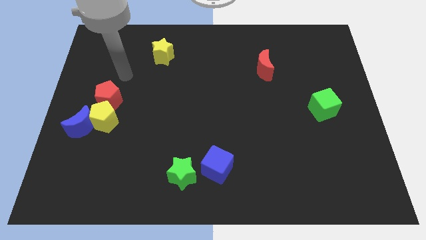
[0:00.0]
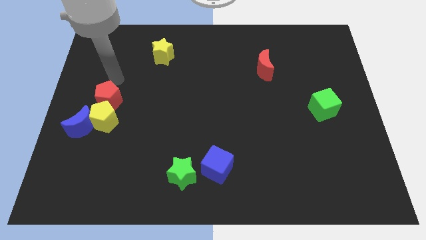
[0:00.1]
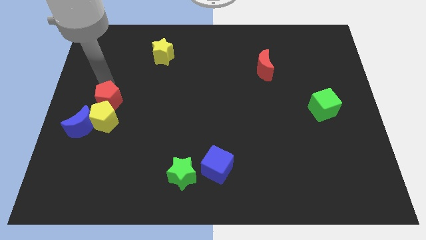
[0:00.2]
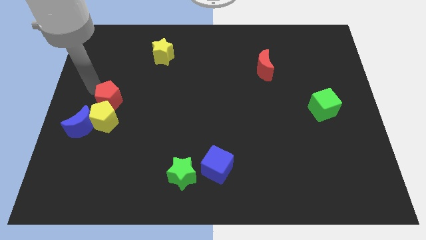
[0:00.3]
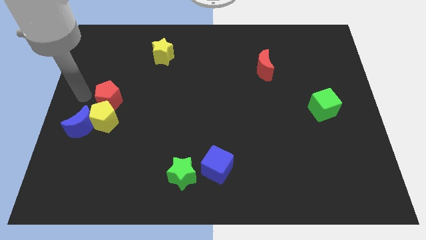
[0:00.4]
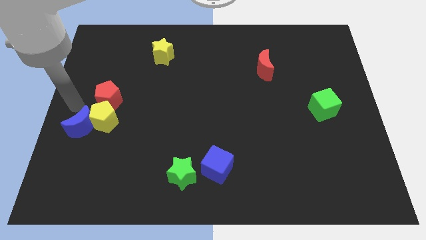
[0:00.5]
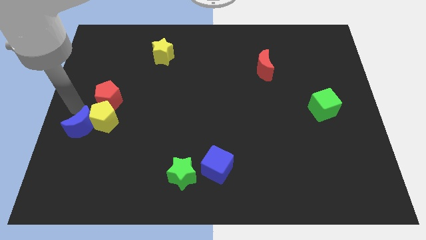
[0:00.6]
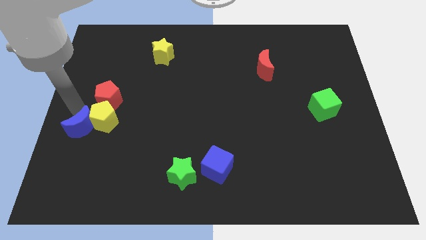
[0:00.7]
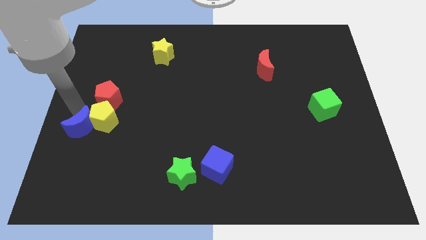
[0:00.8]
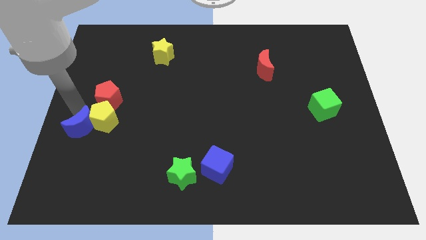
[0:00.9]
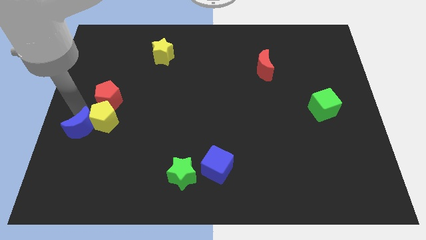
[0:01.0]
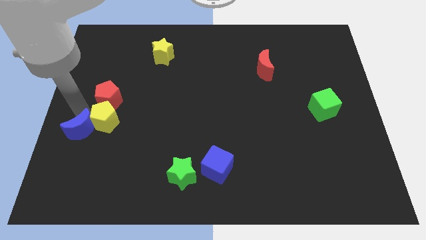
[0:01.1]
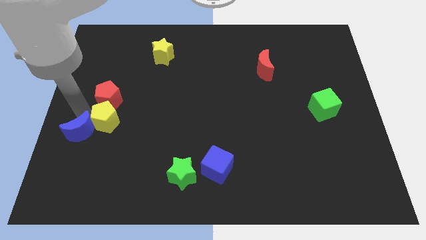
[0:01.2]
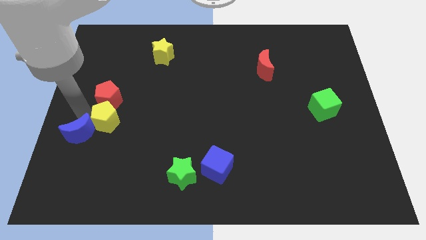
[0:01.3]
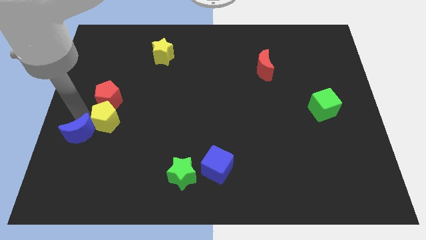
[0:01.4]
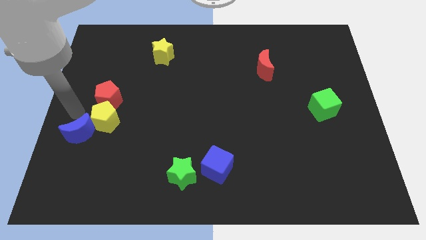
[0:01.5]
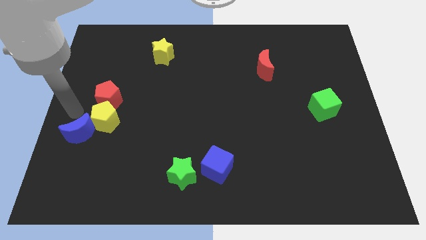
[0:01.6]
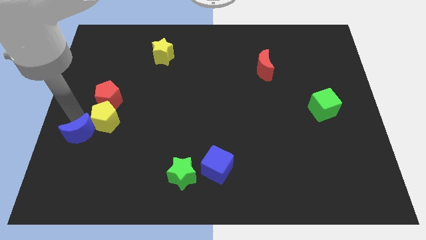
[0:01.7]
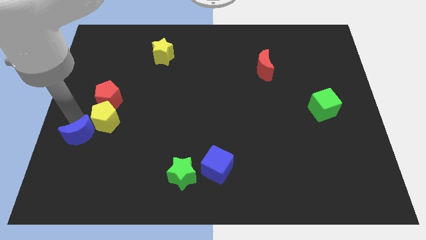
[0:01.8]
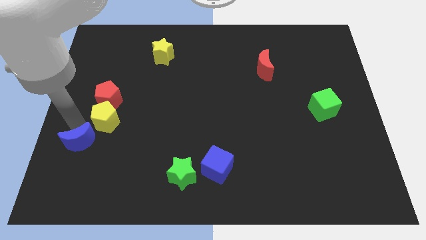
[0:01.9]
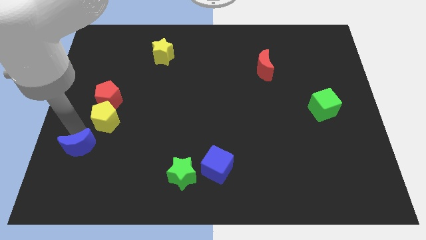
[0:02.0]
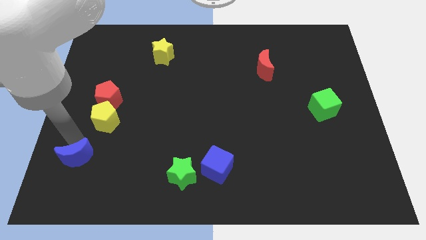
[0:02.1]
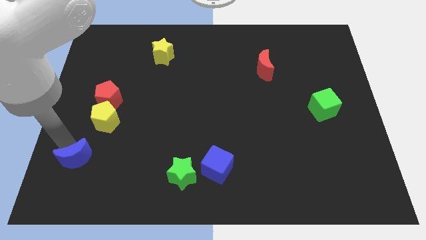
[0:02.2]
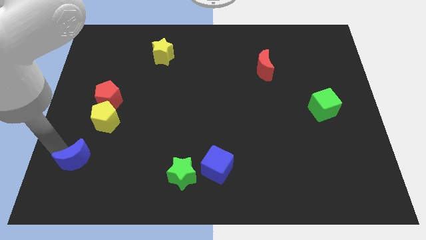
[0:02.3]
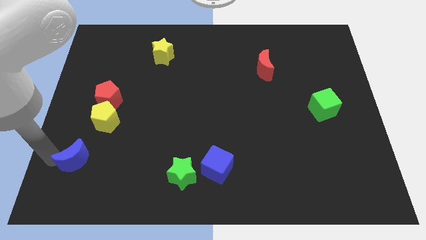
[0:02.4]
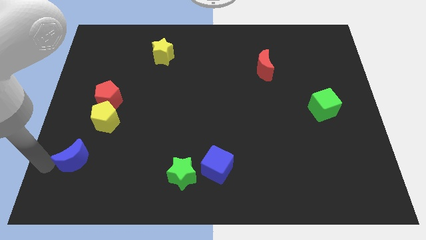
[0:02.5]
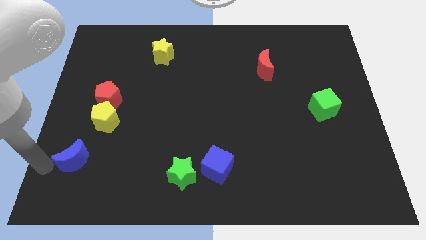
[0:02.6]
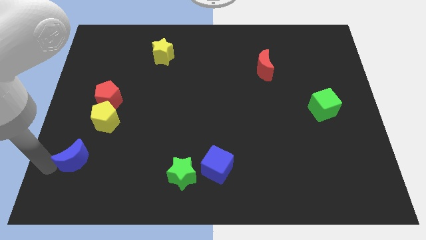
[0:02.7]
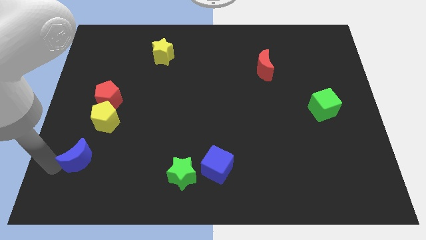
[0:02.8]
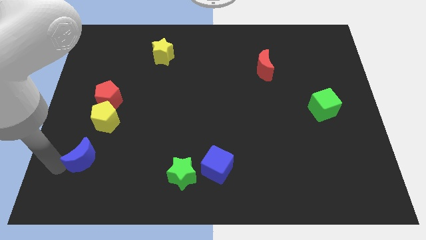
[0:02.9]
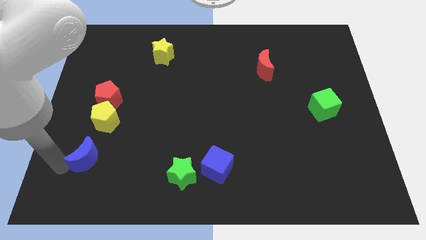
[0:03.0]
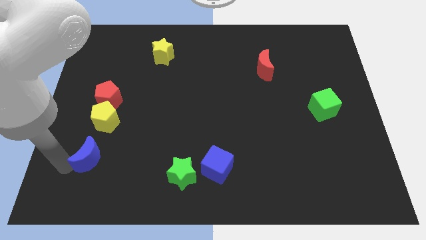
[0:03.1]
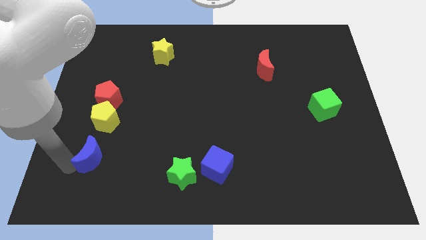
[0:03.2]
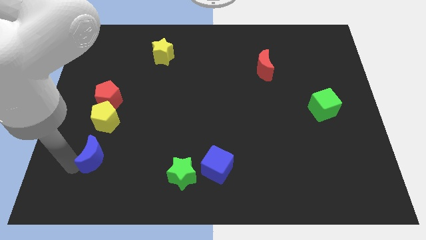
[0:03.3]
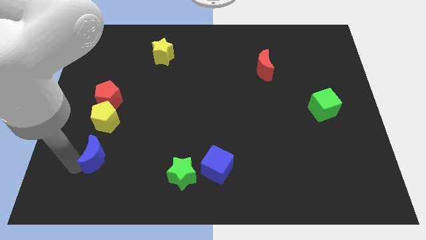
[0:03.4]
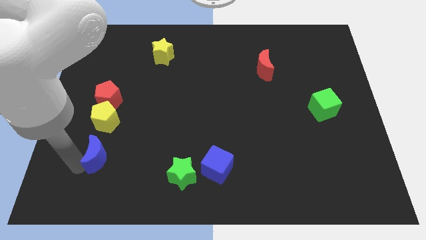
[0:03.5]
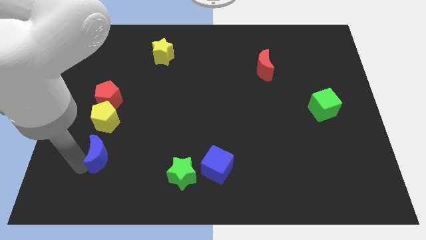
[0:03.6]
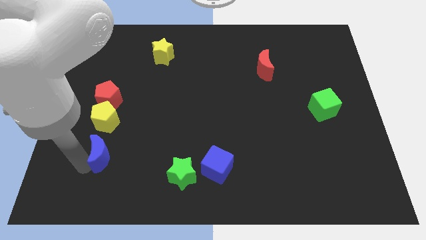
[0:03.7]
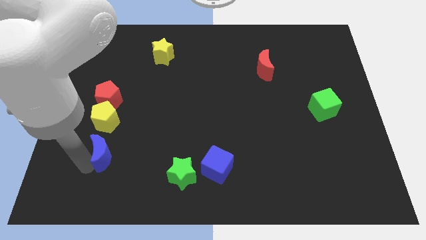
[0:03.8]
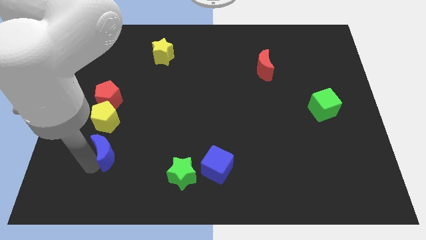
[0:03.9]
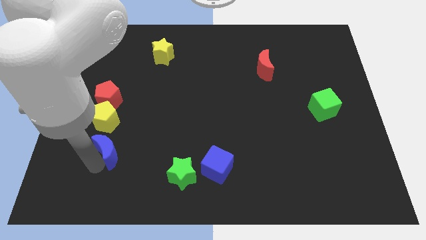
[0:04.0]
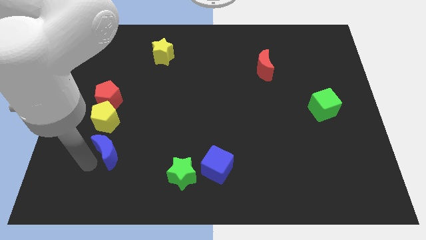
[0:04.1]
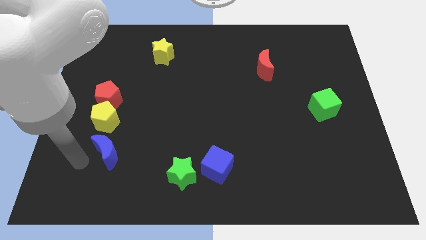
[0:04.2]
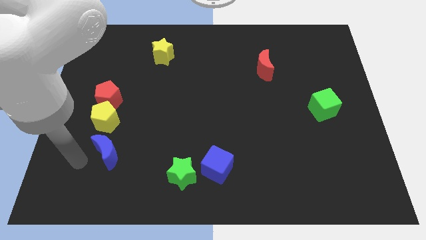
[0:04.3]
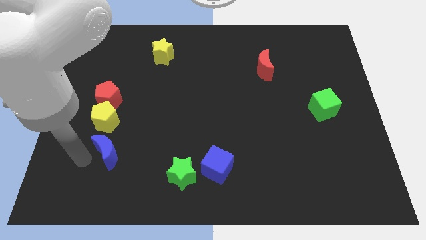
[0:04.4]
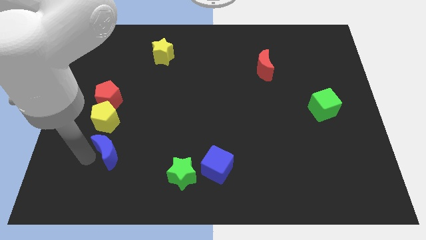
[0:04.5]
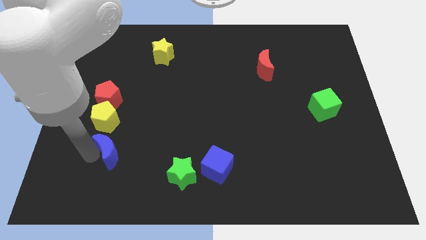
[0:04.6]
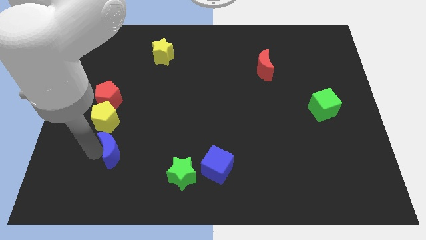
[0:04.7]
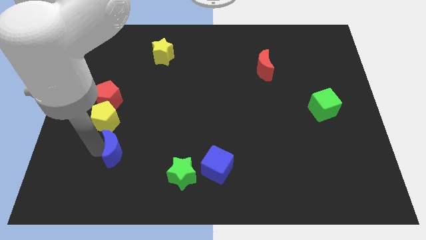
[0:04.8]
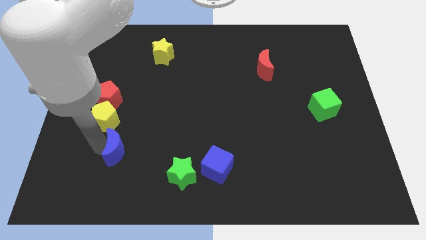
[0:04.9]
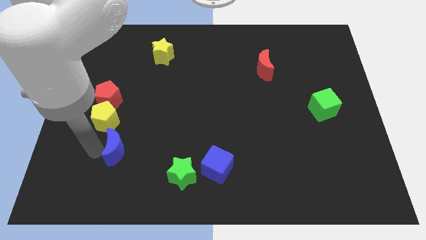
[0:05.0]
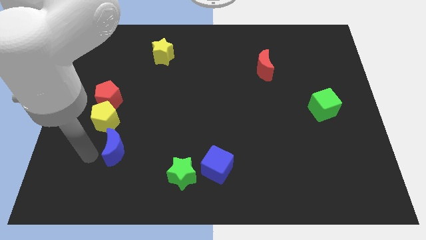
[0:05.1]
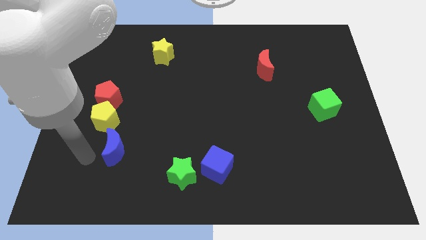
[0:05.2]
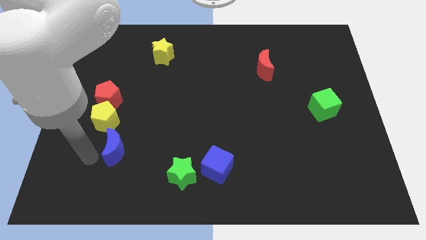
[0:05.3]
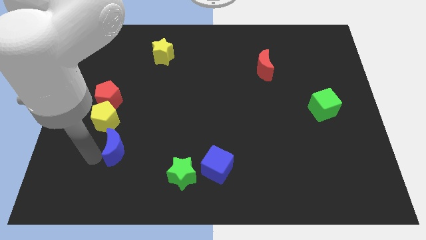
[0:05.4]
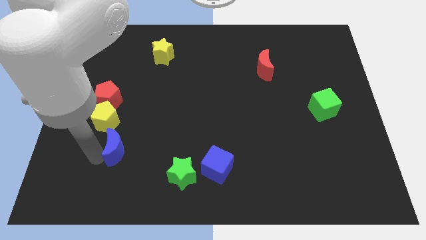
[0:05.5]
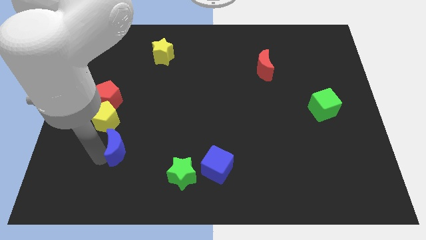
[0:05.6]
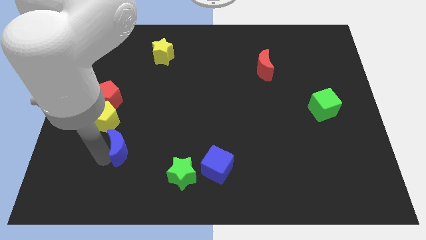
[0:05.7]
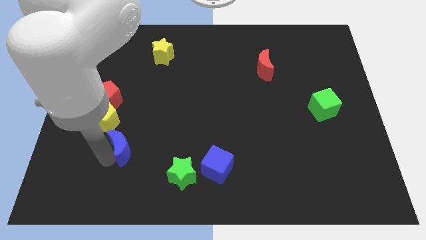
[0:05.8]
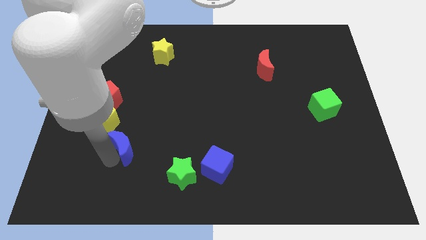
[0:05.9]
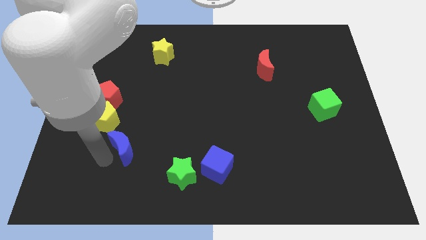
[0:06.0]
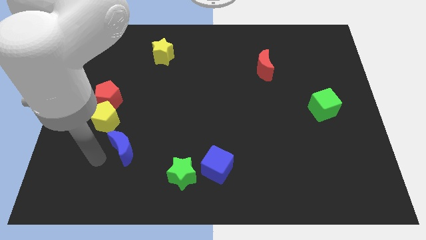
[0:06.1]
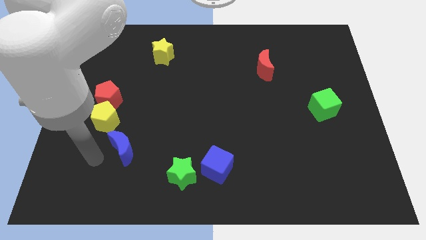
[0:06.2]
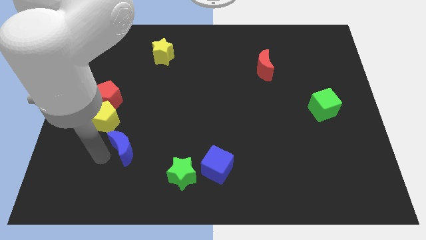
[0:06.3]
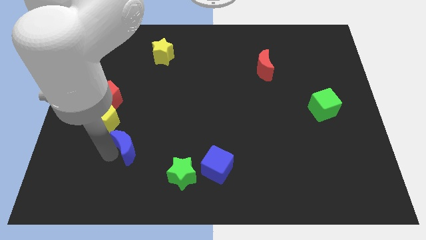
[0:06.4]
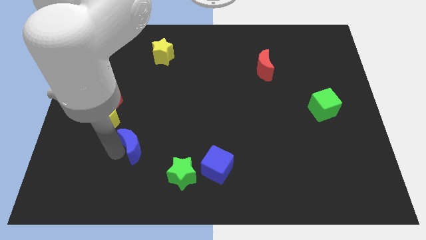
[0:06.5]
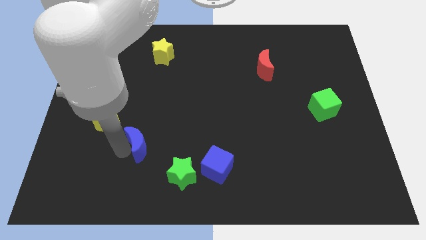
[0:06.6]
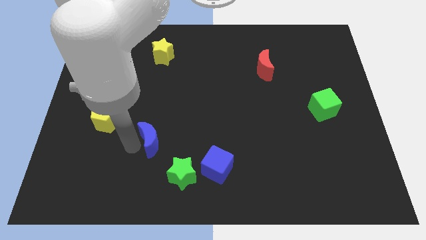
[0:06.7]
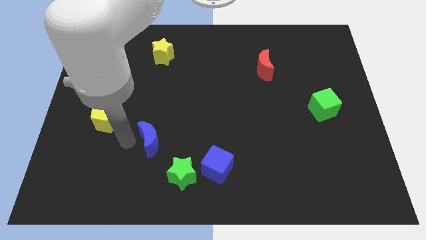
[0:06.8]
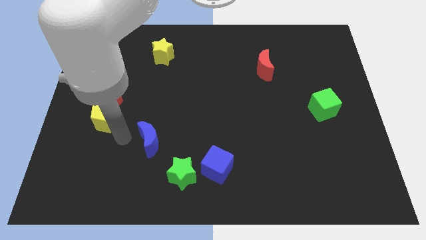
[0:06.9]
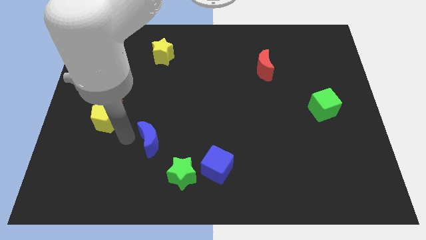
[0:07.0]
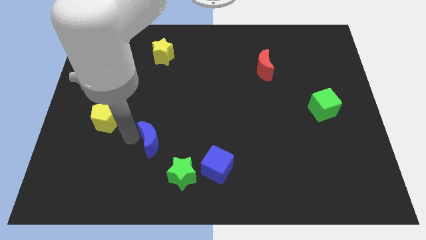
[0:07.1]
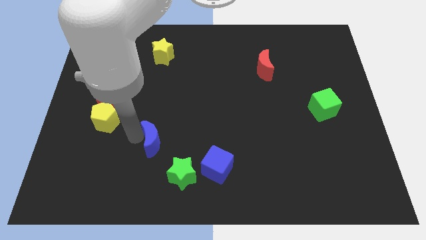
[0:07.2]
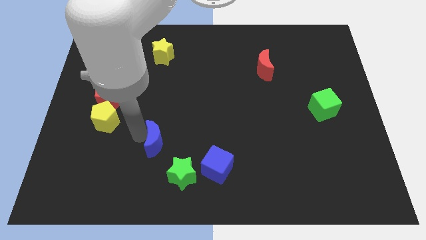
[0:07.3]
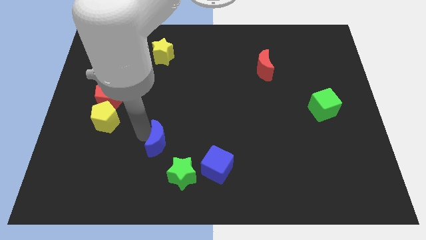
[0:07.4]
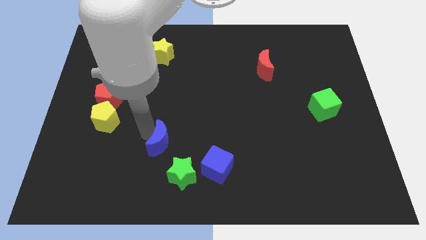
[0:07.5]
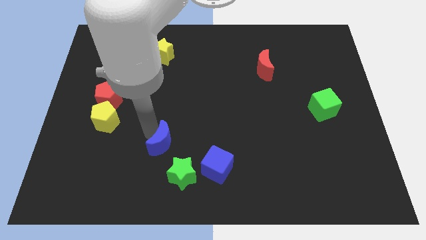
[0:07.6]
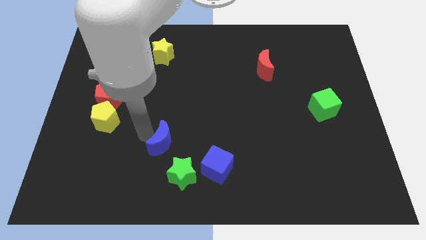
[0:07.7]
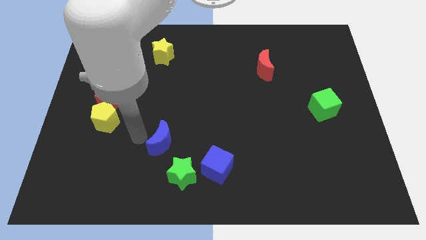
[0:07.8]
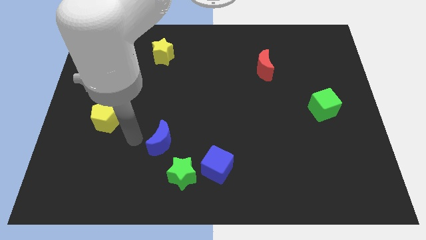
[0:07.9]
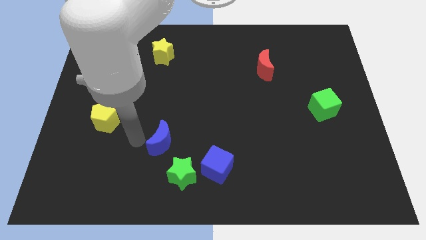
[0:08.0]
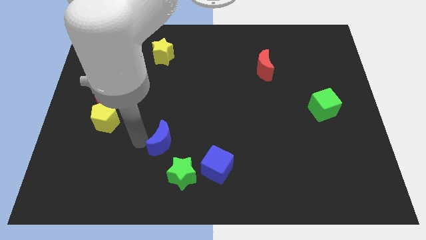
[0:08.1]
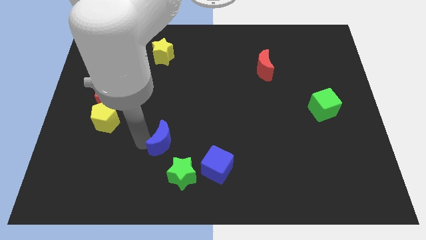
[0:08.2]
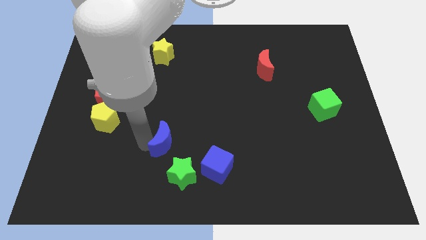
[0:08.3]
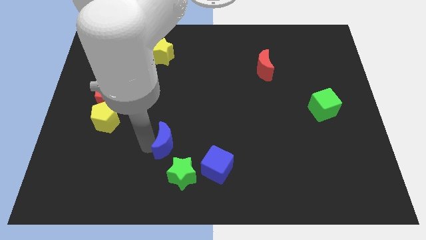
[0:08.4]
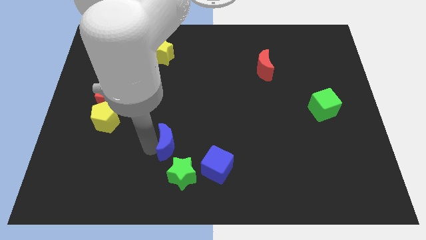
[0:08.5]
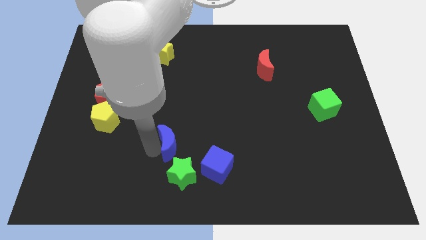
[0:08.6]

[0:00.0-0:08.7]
push the blue moon diagonally up and to the left of the blue cube
